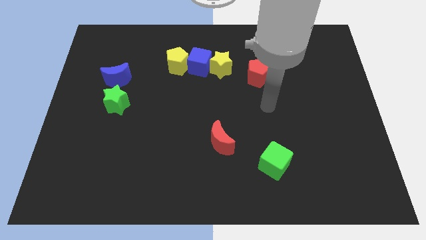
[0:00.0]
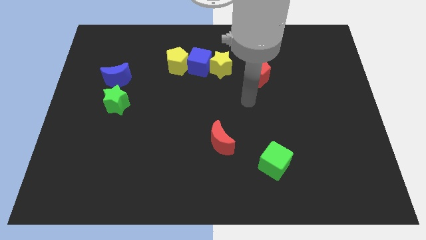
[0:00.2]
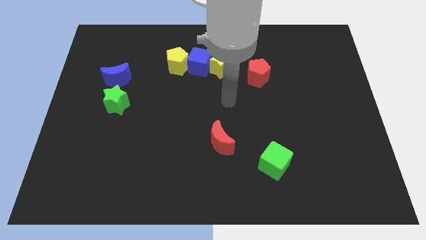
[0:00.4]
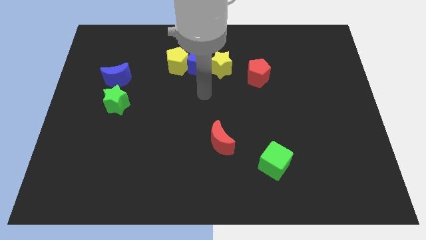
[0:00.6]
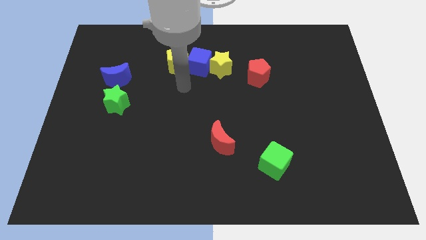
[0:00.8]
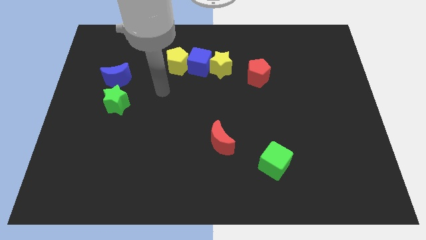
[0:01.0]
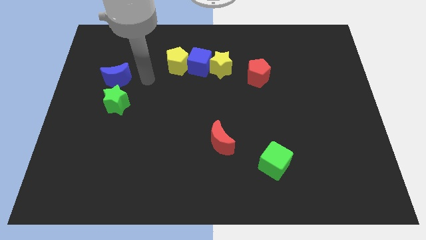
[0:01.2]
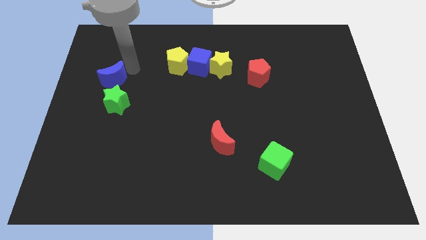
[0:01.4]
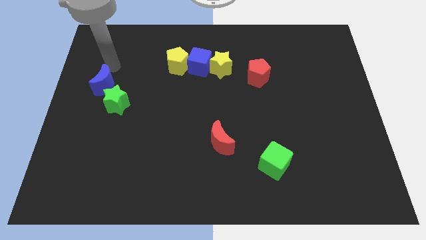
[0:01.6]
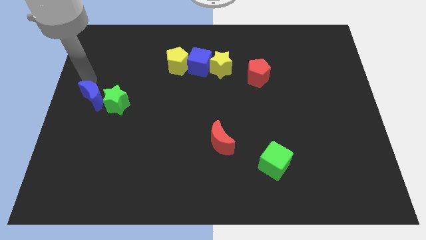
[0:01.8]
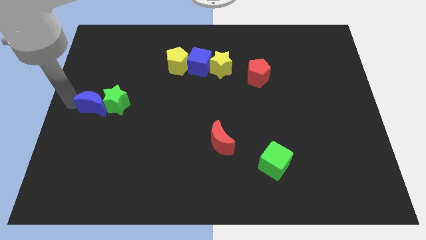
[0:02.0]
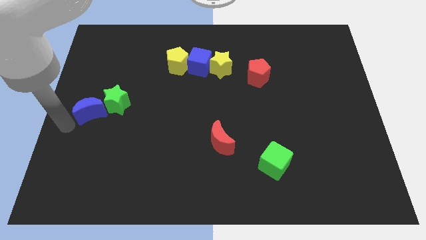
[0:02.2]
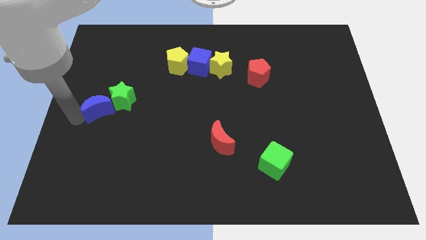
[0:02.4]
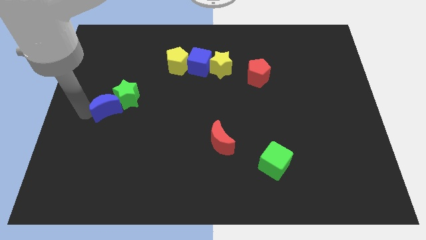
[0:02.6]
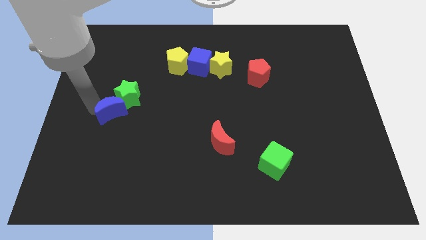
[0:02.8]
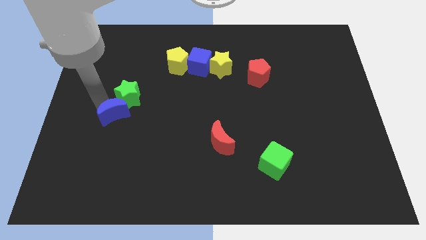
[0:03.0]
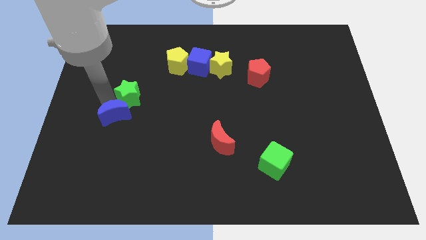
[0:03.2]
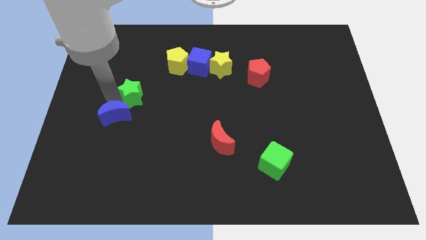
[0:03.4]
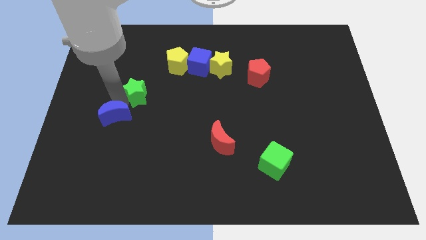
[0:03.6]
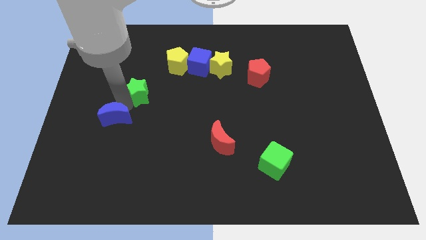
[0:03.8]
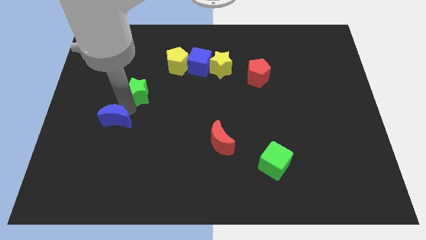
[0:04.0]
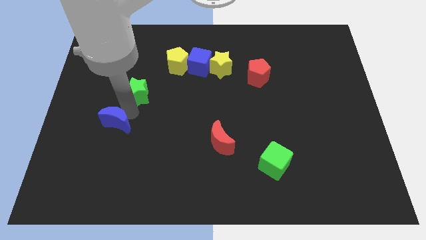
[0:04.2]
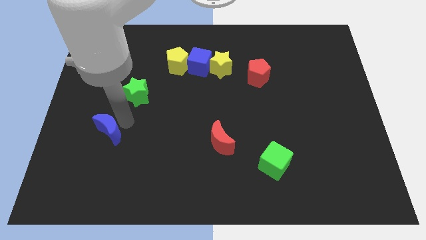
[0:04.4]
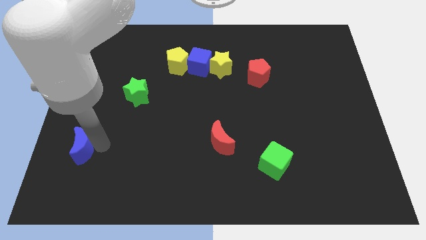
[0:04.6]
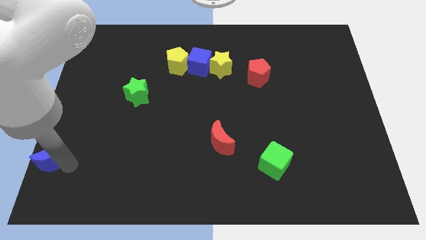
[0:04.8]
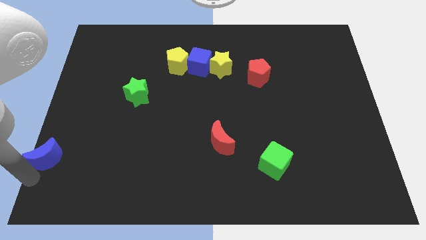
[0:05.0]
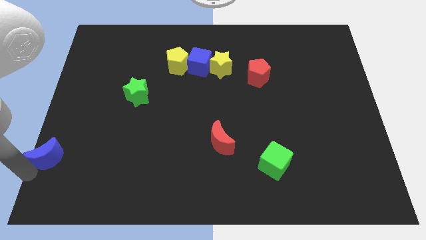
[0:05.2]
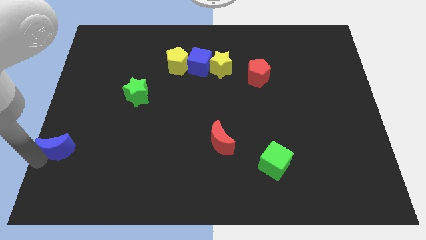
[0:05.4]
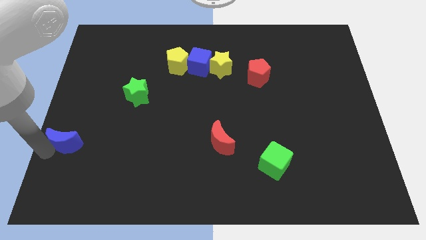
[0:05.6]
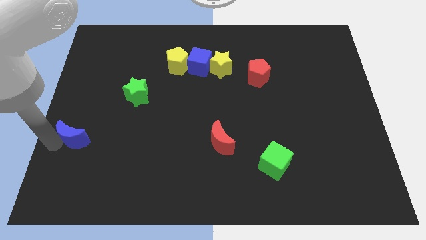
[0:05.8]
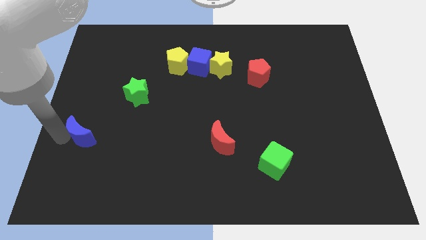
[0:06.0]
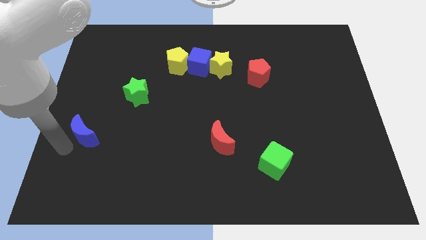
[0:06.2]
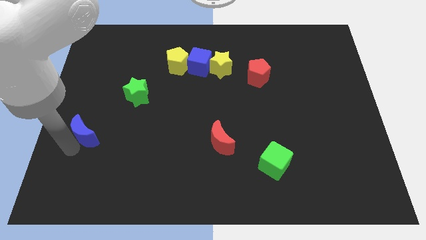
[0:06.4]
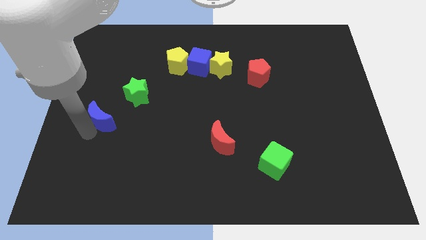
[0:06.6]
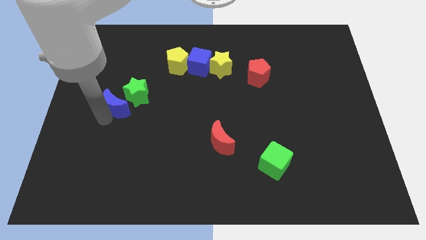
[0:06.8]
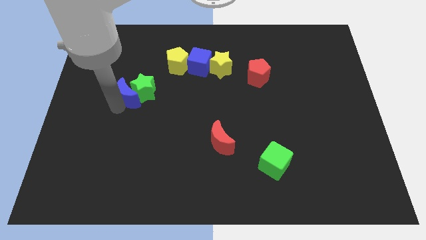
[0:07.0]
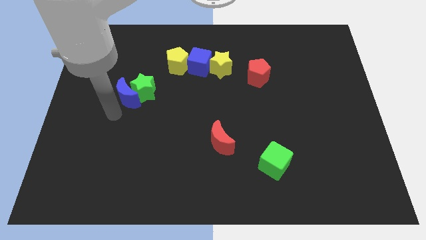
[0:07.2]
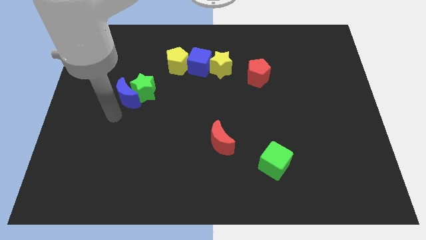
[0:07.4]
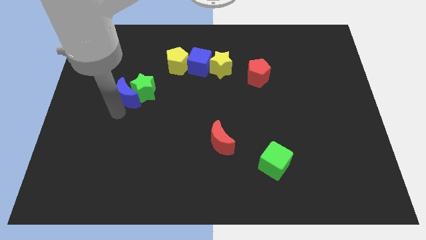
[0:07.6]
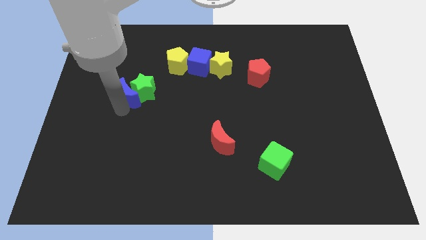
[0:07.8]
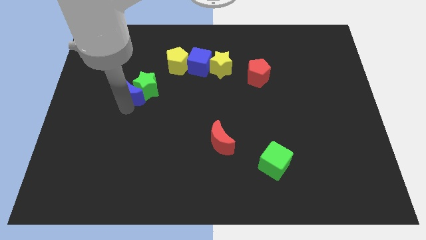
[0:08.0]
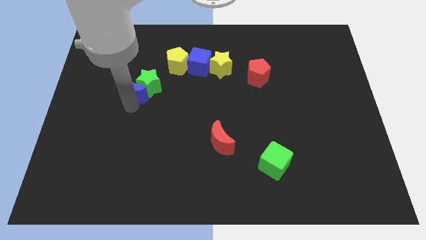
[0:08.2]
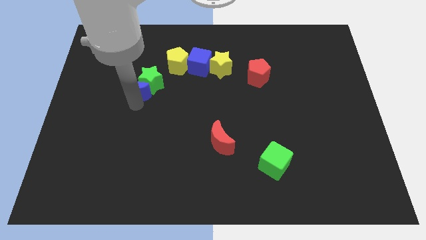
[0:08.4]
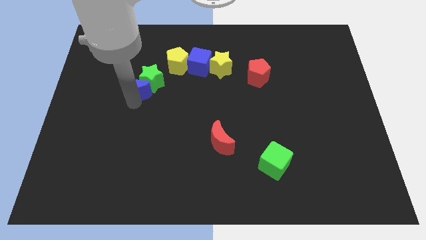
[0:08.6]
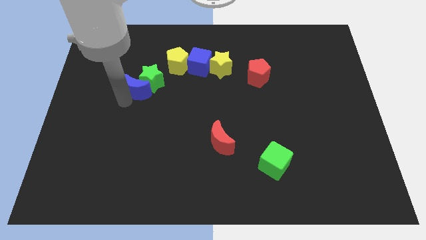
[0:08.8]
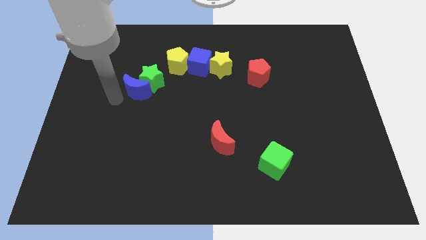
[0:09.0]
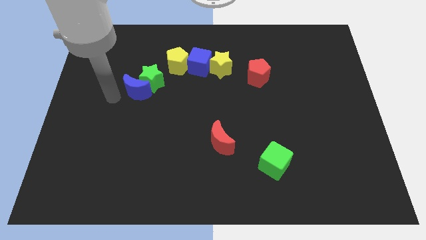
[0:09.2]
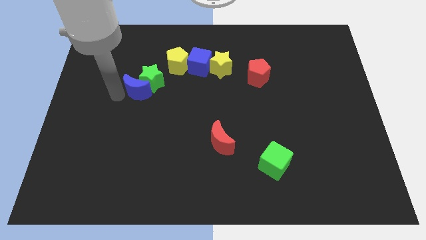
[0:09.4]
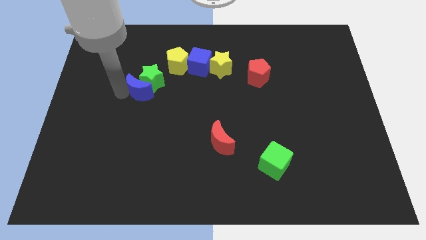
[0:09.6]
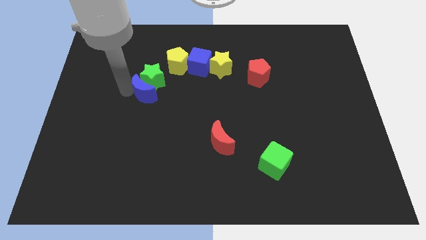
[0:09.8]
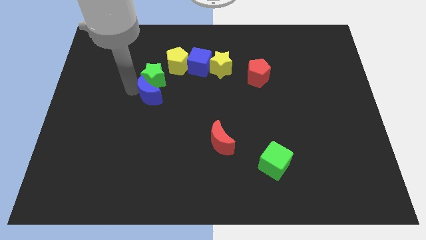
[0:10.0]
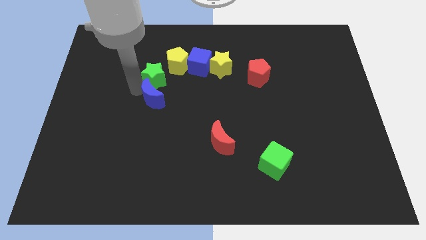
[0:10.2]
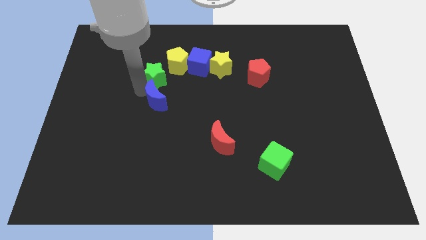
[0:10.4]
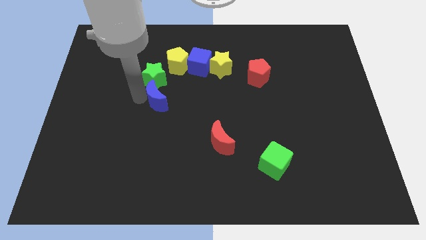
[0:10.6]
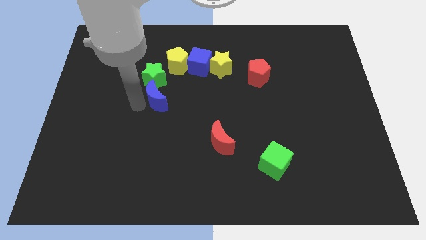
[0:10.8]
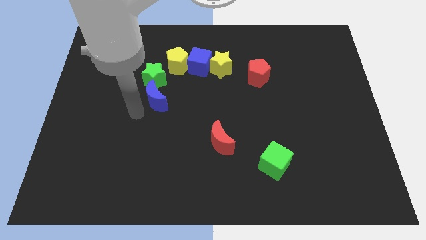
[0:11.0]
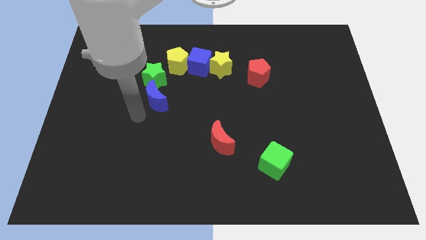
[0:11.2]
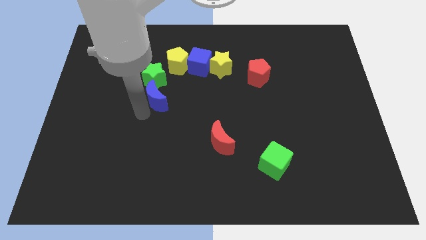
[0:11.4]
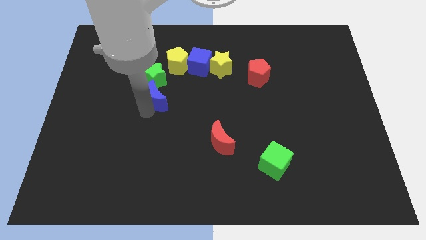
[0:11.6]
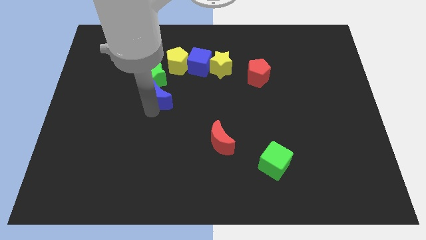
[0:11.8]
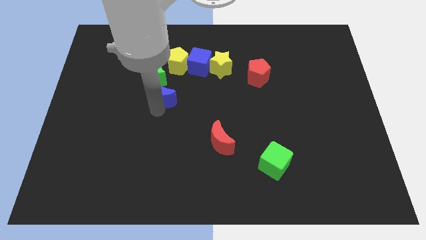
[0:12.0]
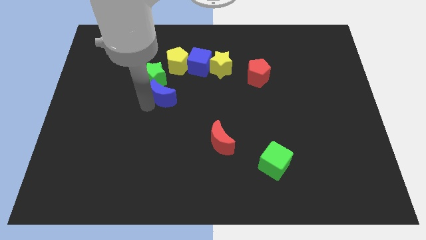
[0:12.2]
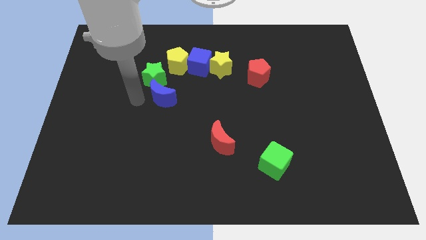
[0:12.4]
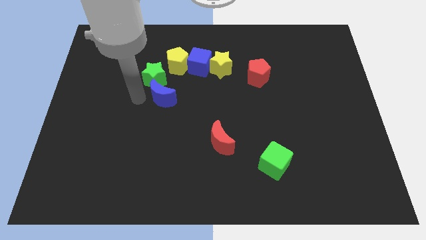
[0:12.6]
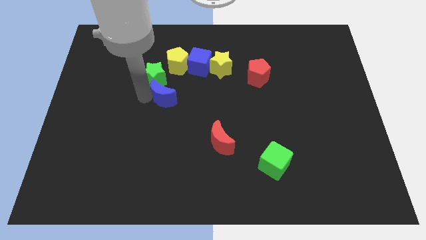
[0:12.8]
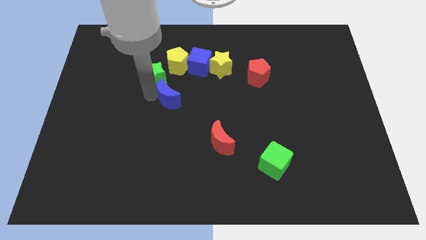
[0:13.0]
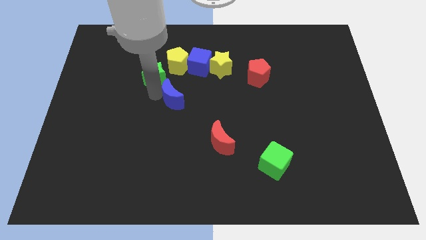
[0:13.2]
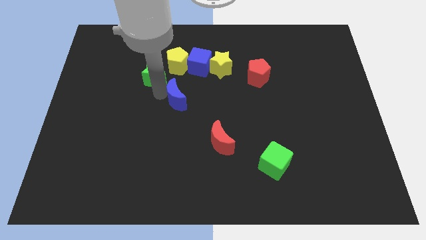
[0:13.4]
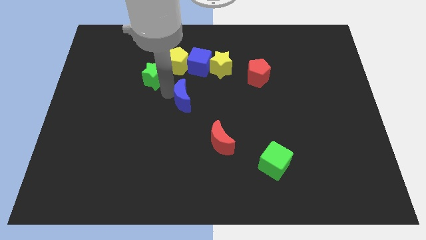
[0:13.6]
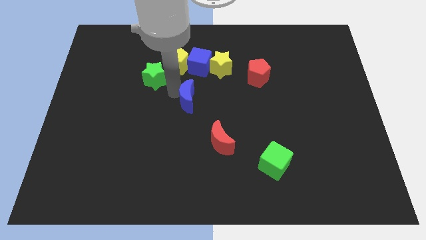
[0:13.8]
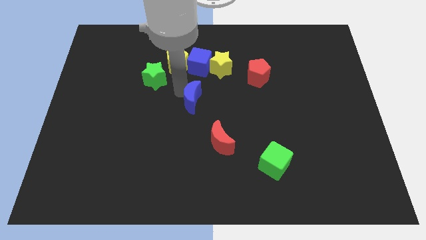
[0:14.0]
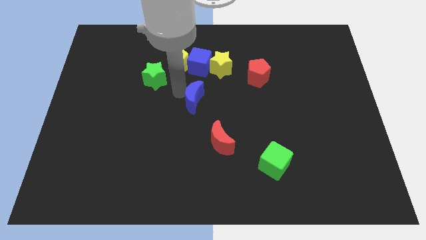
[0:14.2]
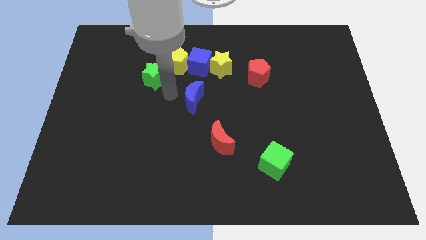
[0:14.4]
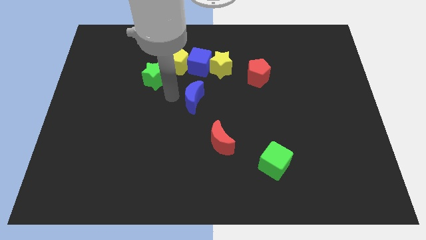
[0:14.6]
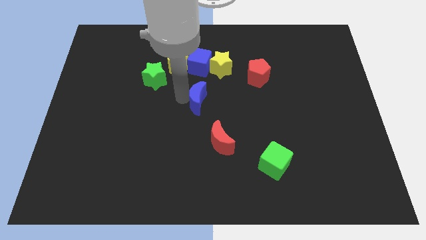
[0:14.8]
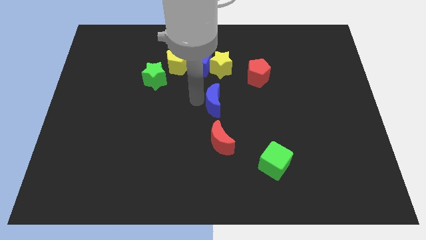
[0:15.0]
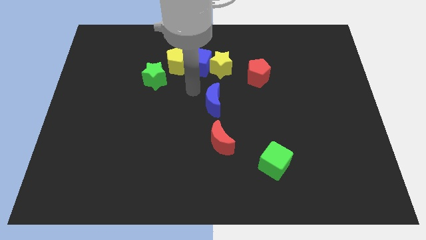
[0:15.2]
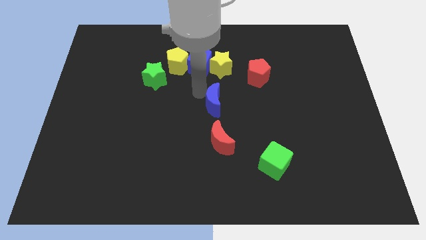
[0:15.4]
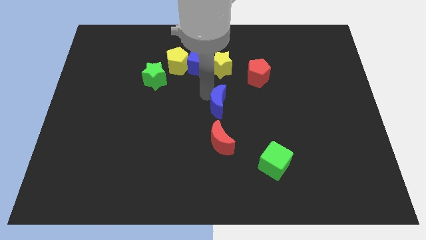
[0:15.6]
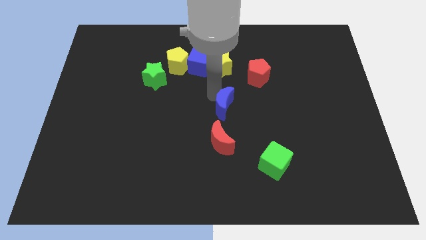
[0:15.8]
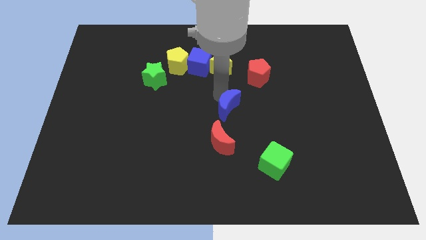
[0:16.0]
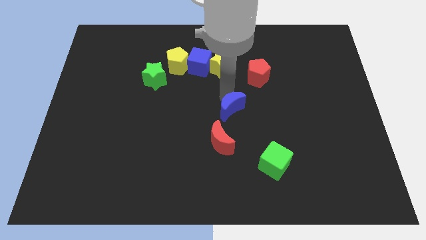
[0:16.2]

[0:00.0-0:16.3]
put the blue moon diagonally up and to the right of the red moon
